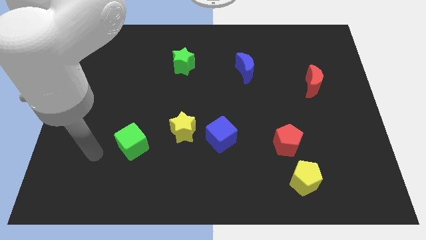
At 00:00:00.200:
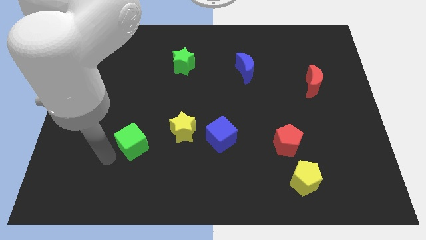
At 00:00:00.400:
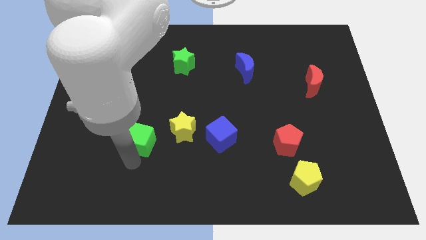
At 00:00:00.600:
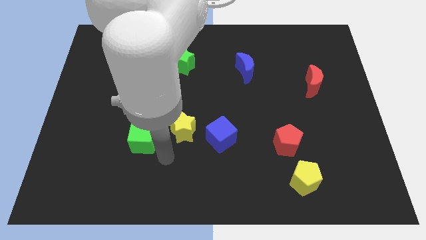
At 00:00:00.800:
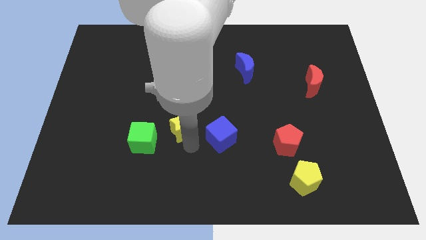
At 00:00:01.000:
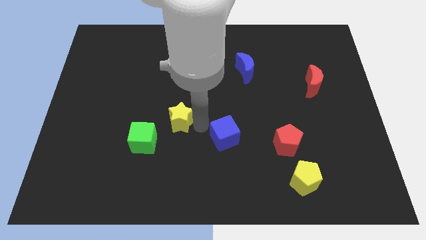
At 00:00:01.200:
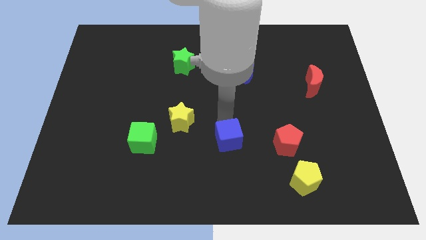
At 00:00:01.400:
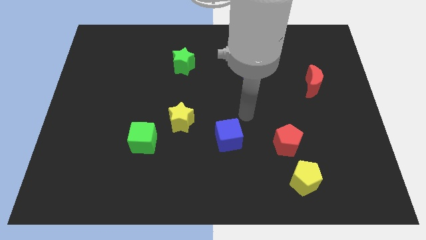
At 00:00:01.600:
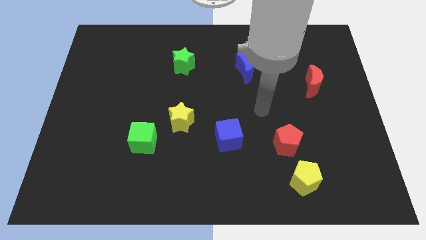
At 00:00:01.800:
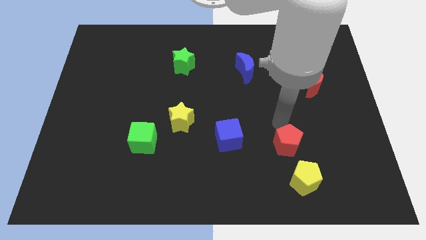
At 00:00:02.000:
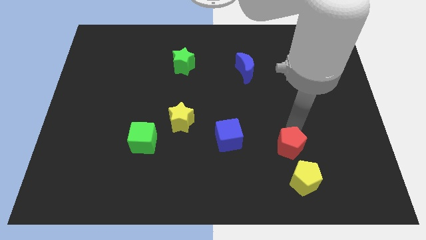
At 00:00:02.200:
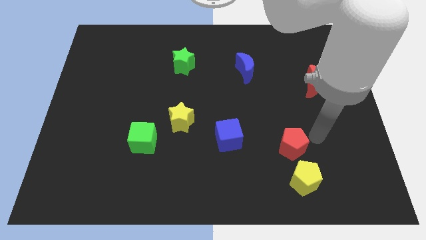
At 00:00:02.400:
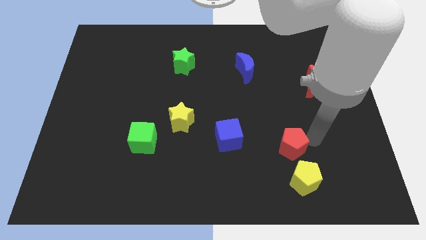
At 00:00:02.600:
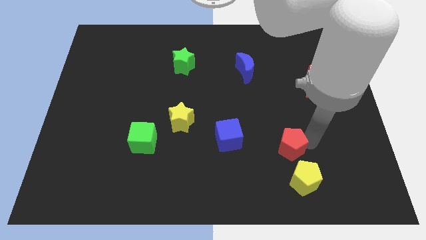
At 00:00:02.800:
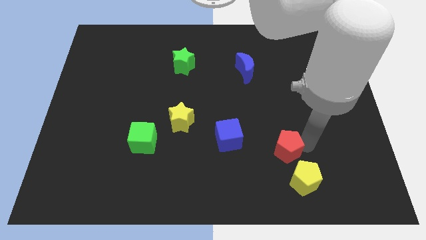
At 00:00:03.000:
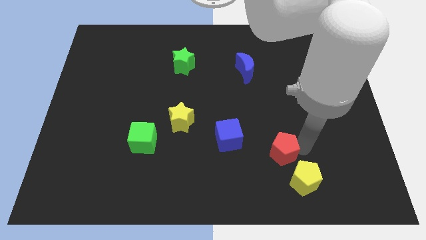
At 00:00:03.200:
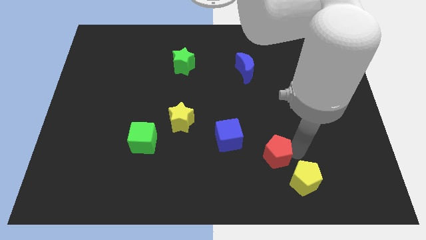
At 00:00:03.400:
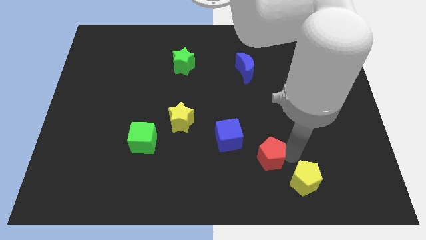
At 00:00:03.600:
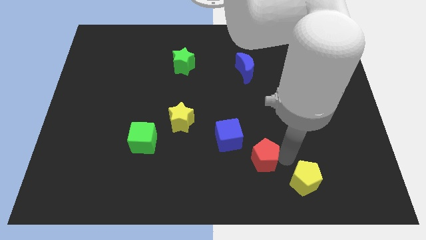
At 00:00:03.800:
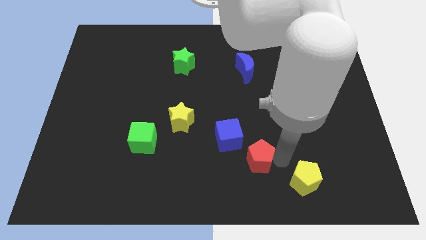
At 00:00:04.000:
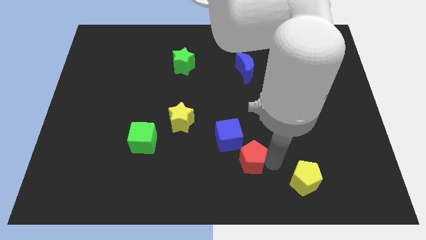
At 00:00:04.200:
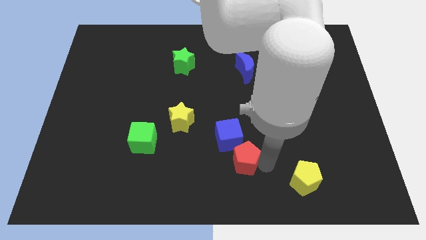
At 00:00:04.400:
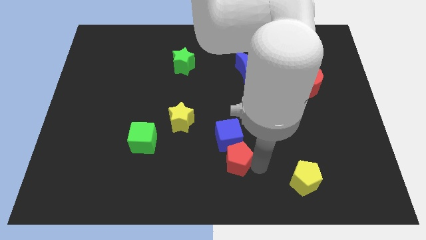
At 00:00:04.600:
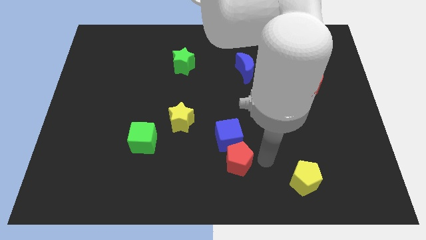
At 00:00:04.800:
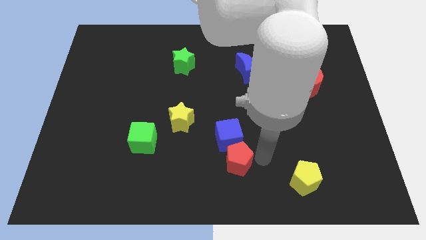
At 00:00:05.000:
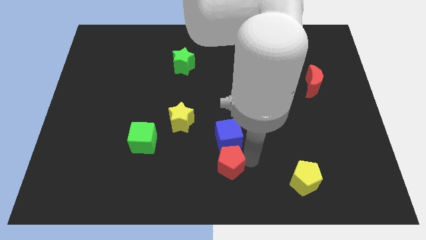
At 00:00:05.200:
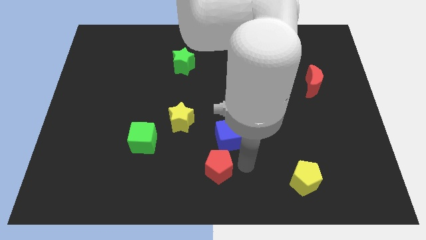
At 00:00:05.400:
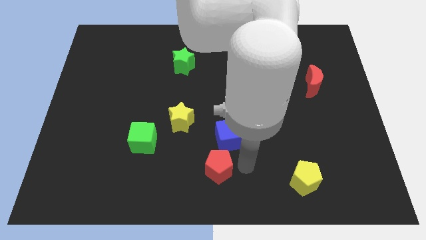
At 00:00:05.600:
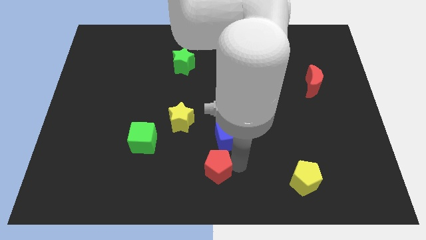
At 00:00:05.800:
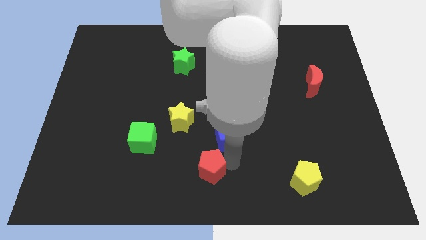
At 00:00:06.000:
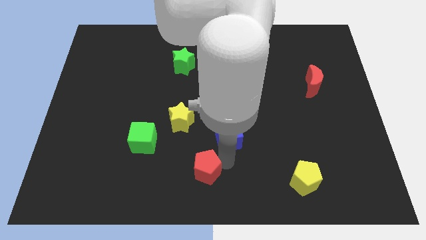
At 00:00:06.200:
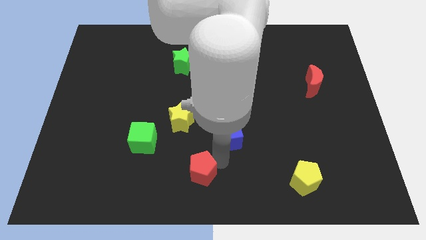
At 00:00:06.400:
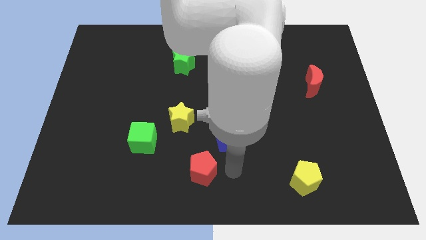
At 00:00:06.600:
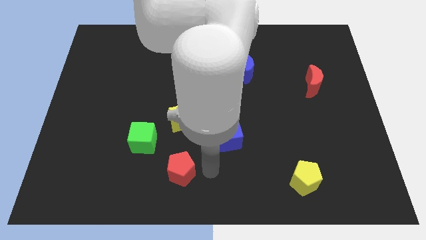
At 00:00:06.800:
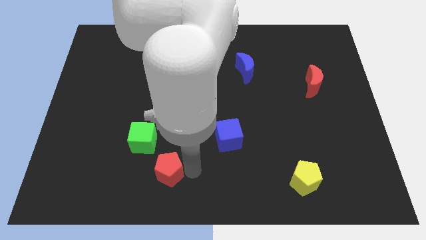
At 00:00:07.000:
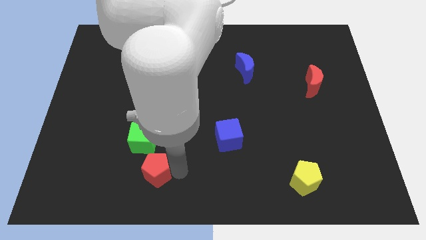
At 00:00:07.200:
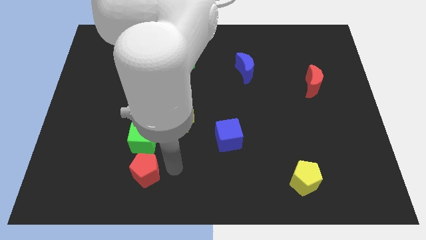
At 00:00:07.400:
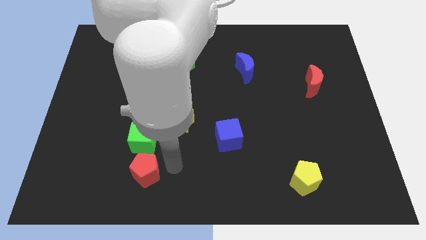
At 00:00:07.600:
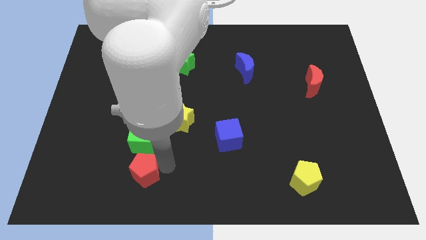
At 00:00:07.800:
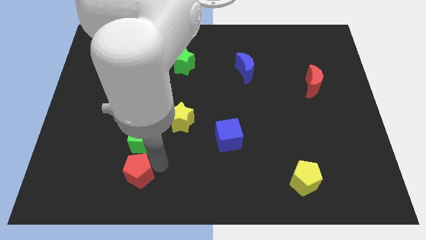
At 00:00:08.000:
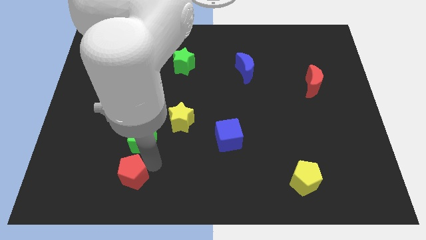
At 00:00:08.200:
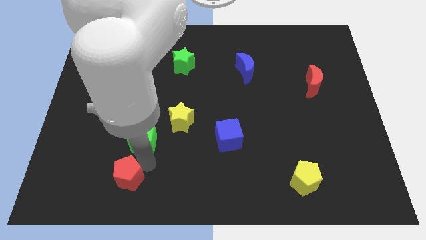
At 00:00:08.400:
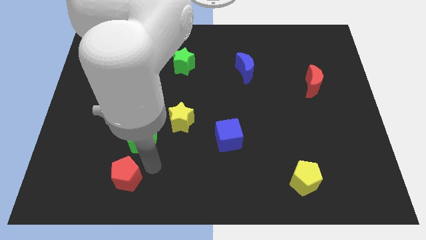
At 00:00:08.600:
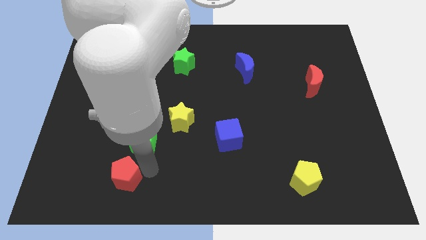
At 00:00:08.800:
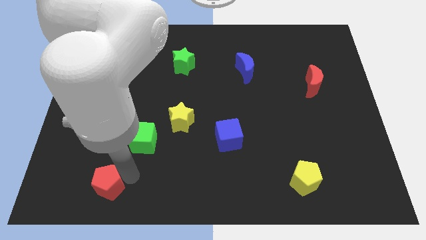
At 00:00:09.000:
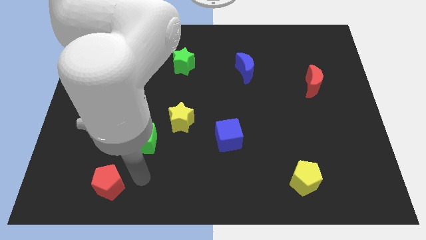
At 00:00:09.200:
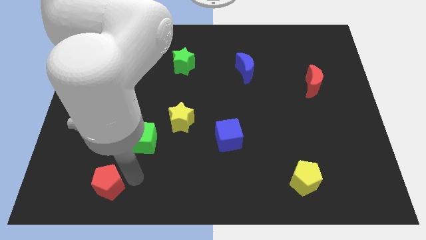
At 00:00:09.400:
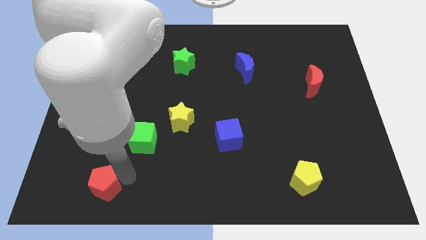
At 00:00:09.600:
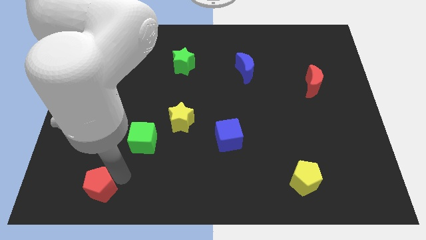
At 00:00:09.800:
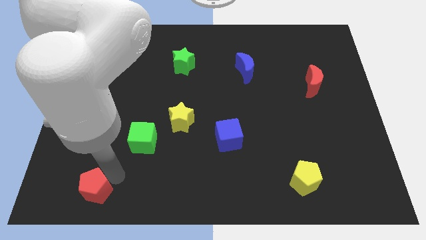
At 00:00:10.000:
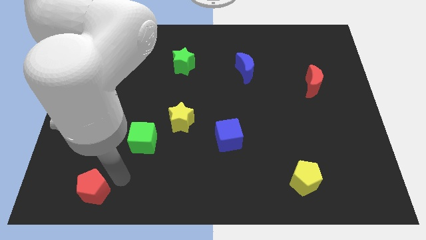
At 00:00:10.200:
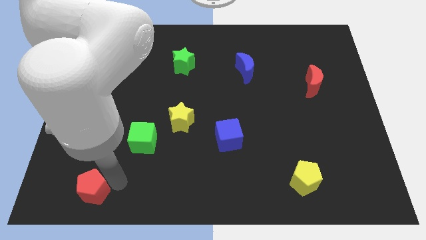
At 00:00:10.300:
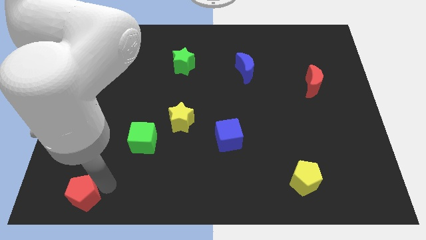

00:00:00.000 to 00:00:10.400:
put the red pentagon to the bottom left corner
